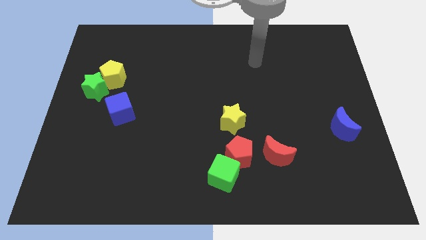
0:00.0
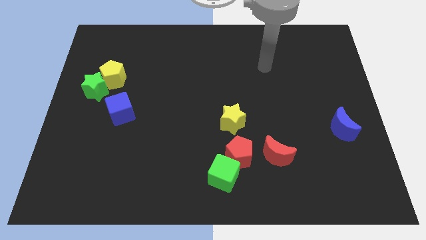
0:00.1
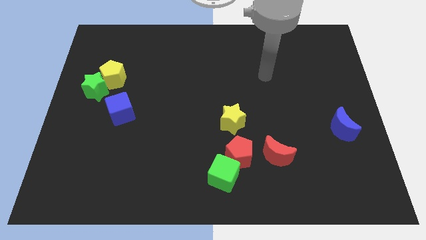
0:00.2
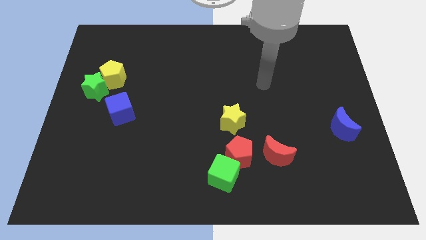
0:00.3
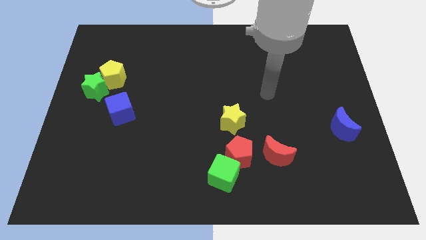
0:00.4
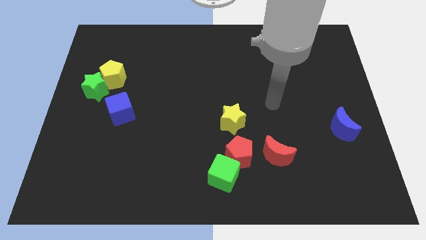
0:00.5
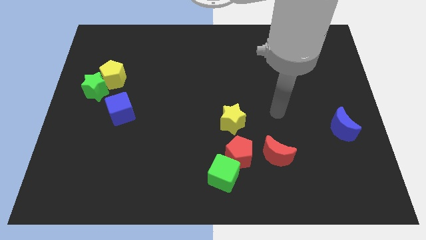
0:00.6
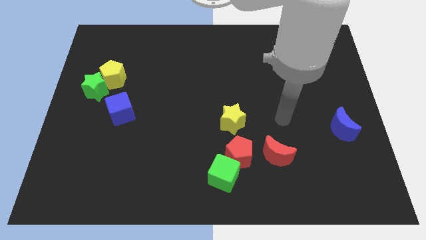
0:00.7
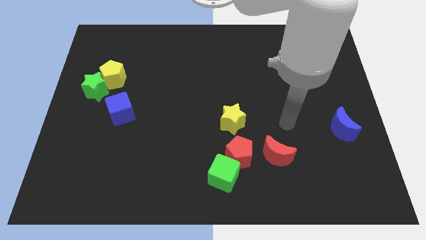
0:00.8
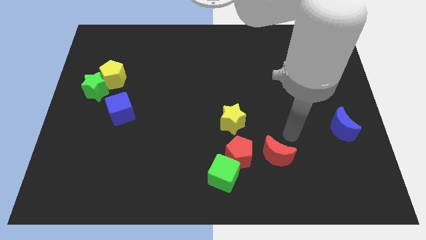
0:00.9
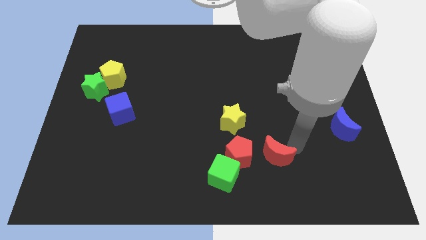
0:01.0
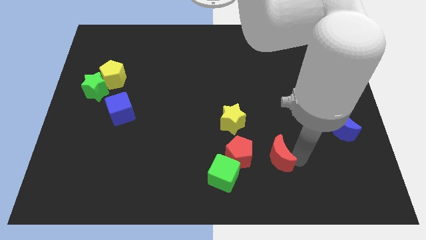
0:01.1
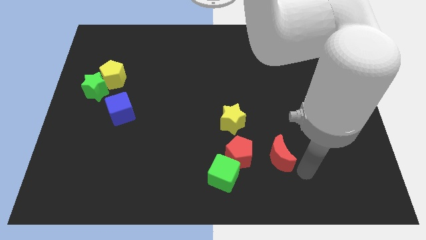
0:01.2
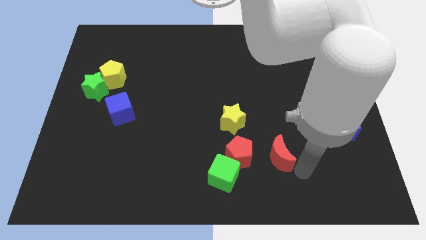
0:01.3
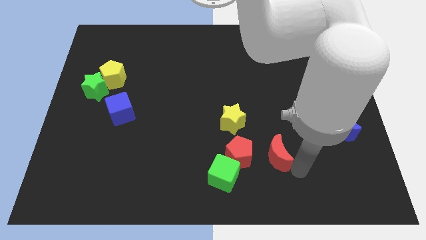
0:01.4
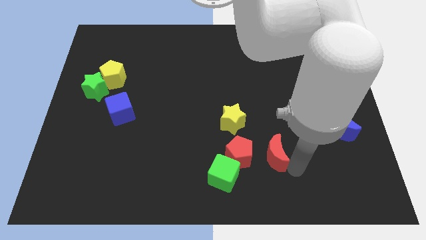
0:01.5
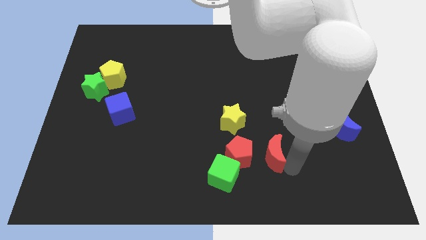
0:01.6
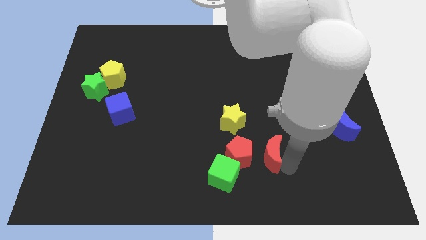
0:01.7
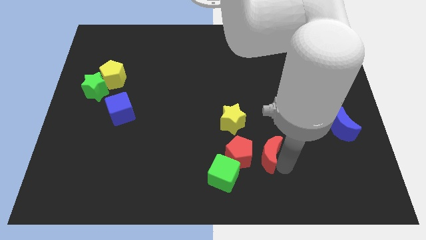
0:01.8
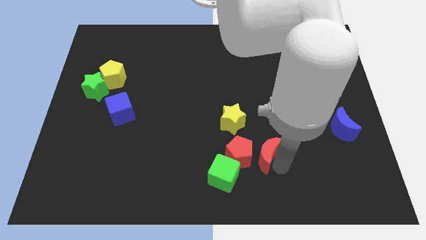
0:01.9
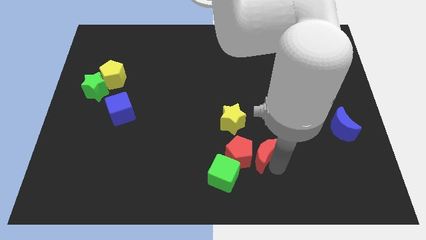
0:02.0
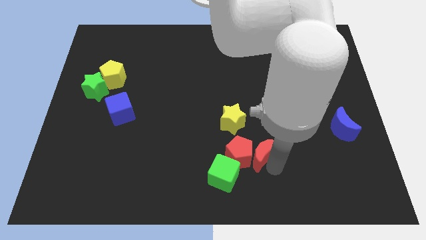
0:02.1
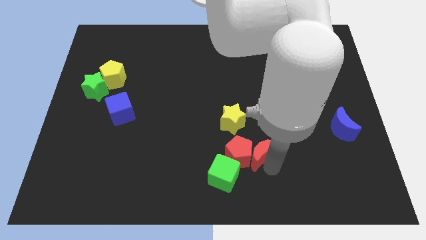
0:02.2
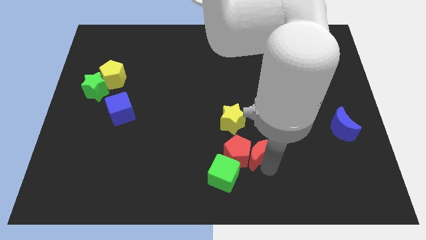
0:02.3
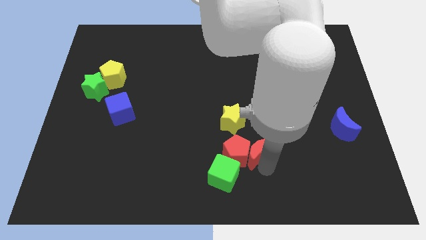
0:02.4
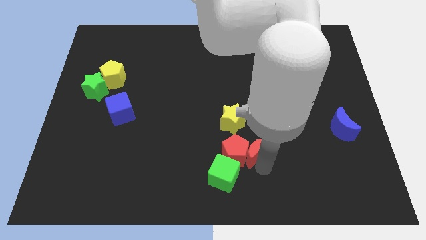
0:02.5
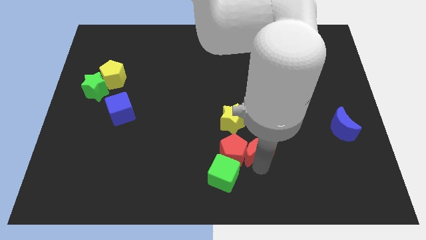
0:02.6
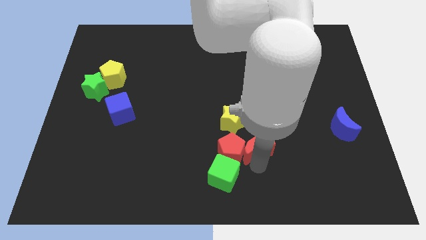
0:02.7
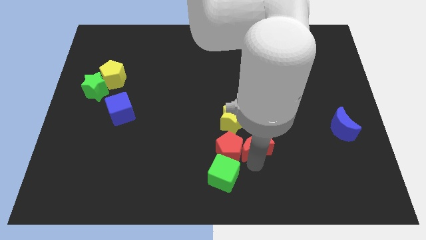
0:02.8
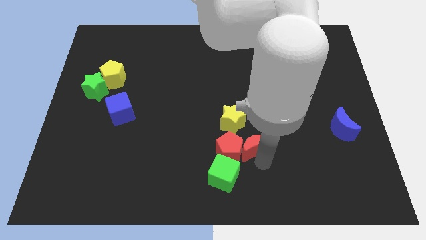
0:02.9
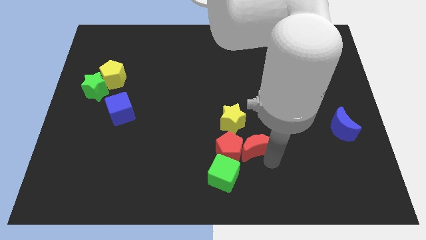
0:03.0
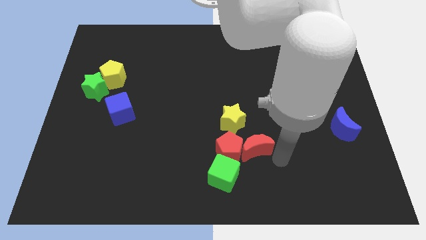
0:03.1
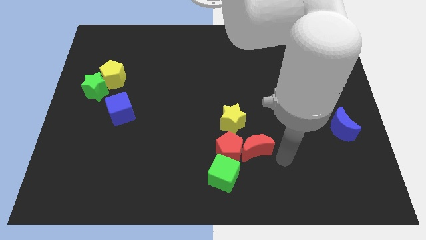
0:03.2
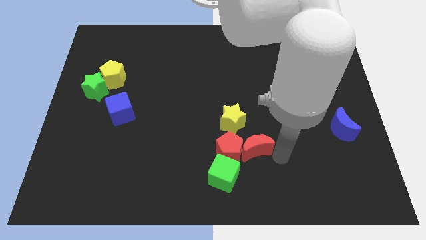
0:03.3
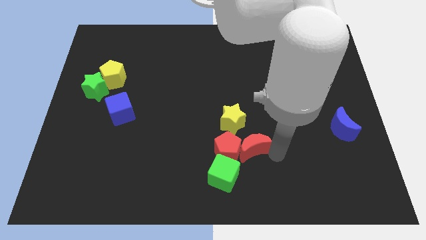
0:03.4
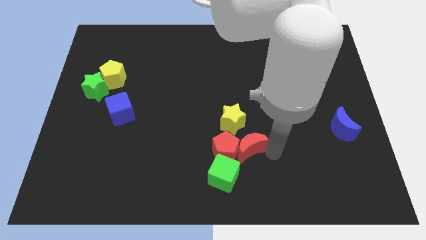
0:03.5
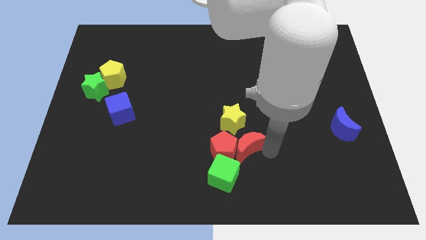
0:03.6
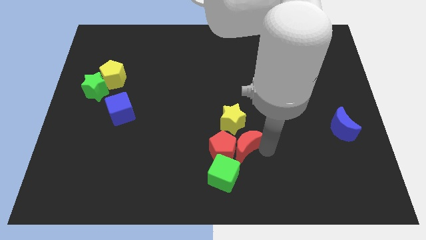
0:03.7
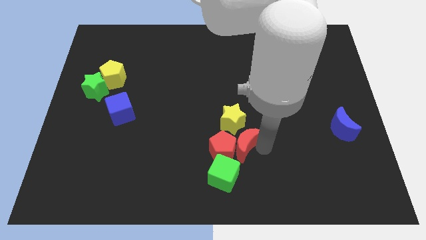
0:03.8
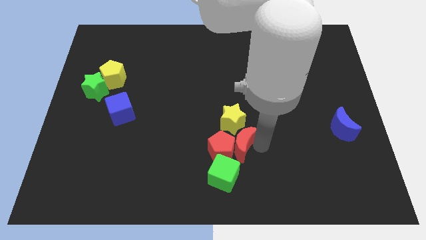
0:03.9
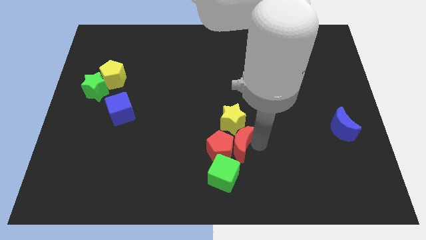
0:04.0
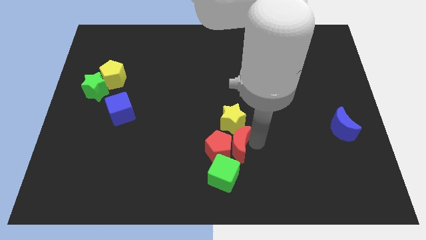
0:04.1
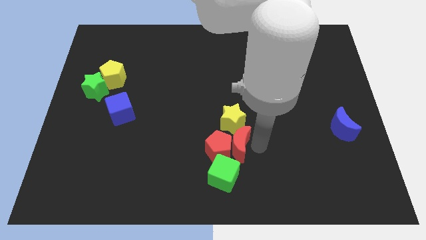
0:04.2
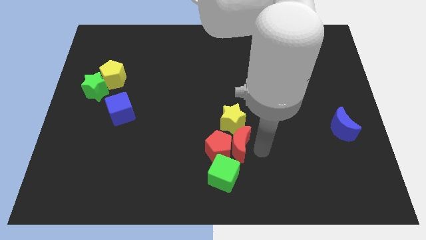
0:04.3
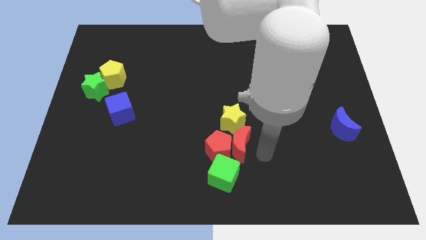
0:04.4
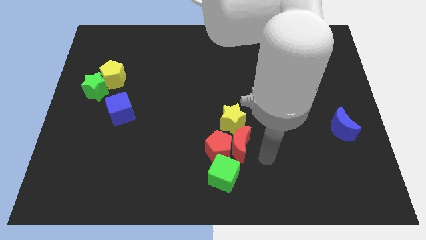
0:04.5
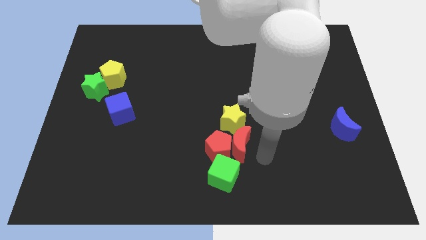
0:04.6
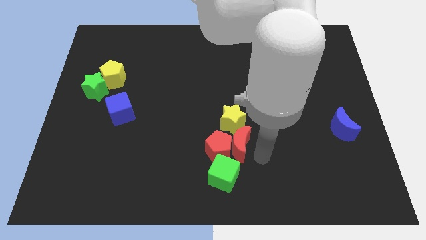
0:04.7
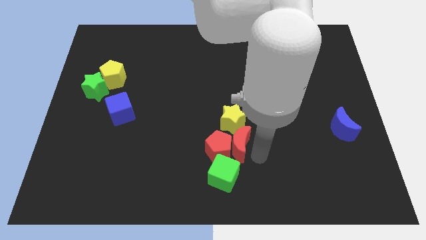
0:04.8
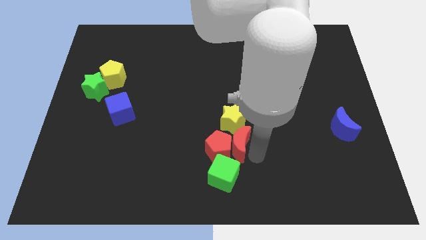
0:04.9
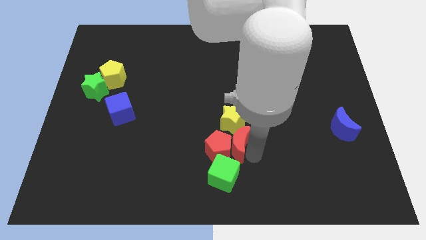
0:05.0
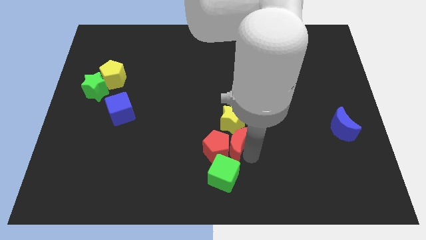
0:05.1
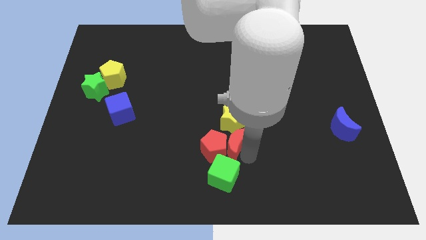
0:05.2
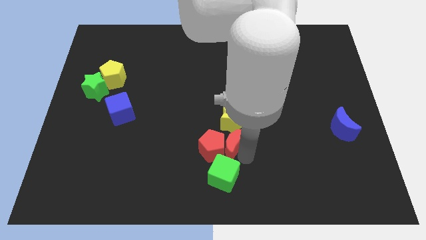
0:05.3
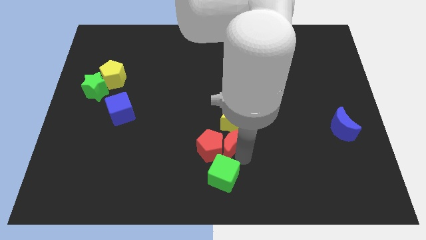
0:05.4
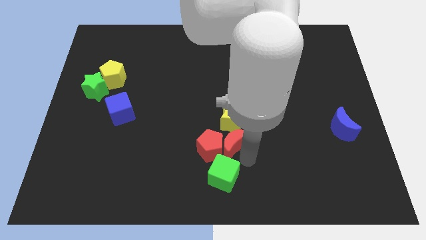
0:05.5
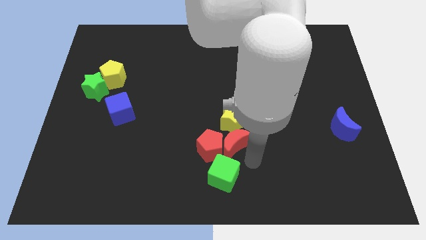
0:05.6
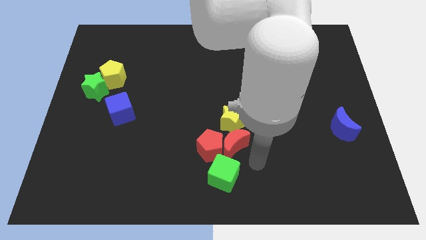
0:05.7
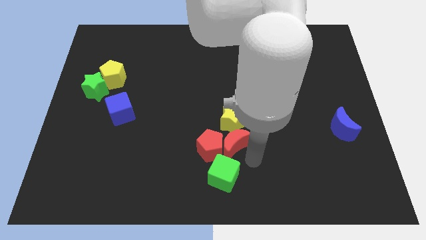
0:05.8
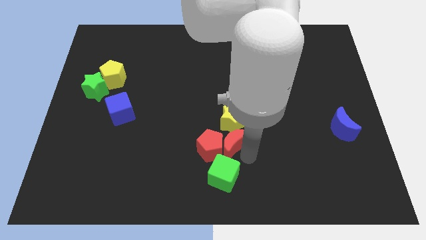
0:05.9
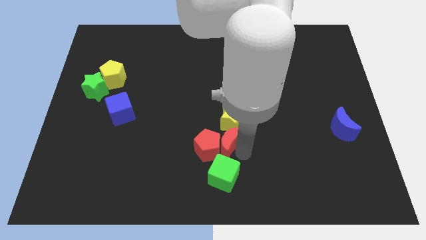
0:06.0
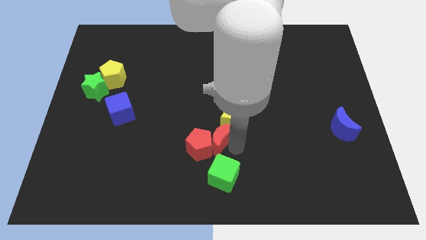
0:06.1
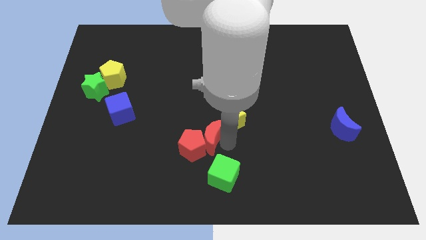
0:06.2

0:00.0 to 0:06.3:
push the red moon left of the yellow star

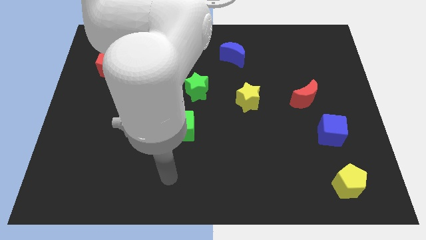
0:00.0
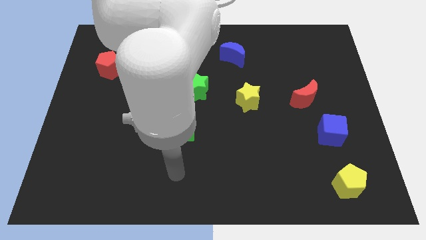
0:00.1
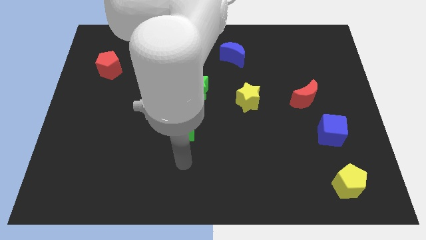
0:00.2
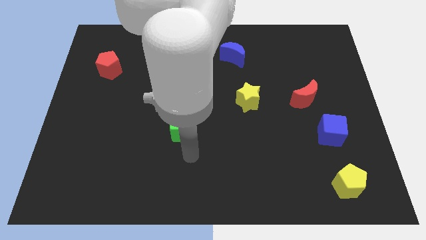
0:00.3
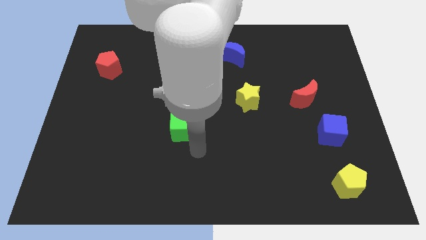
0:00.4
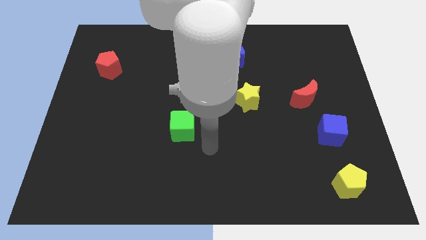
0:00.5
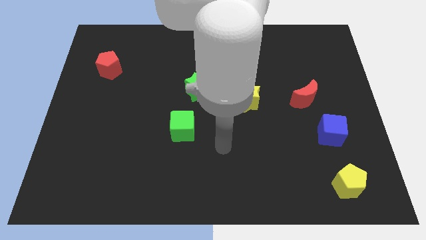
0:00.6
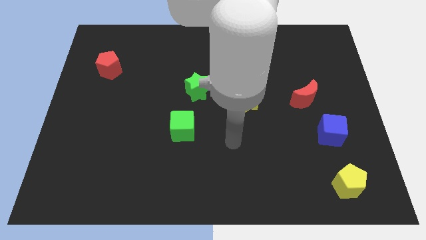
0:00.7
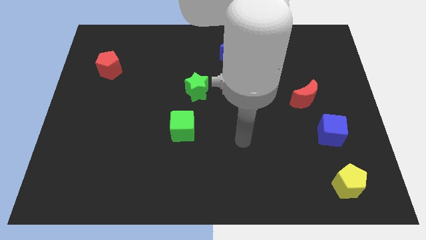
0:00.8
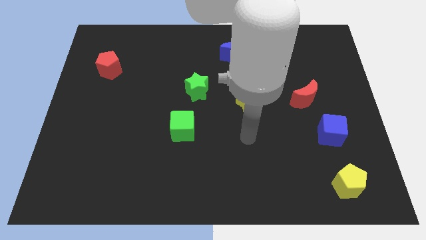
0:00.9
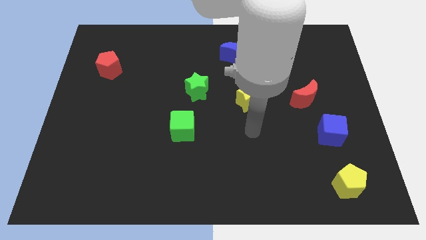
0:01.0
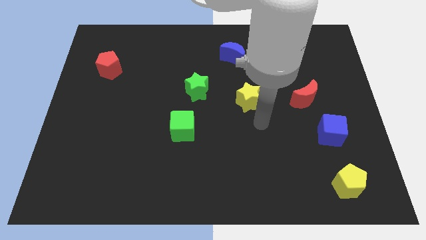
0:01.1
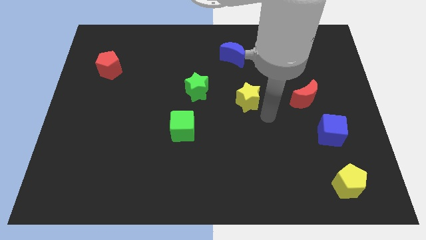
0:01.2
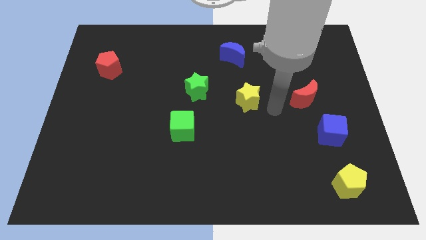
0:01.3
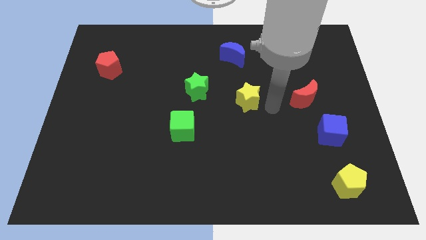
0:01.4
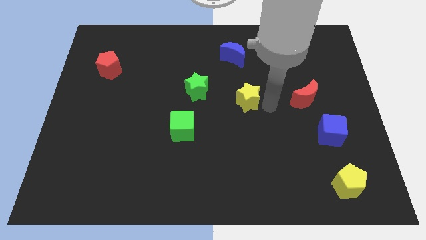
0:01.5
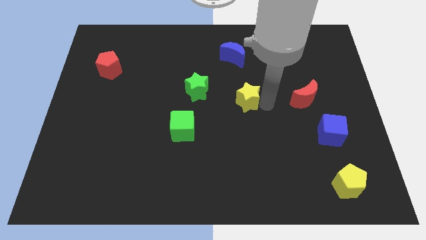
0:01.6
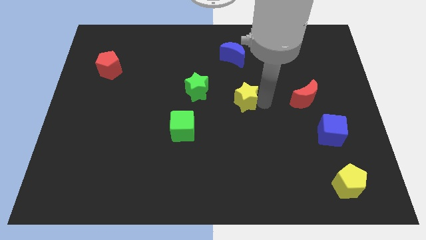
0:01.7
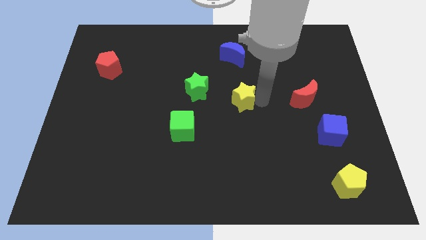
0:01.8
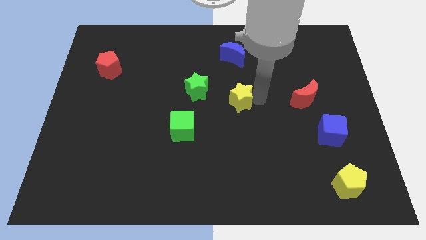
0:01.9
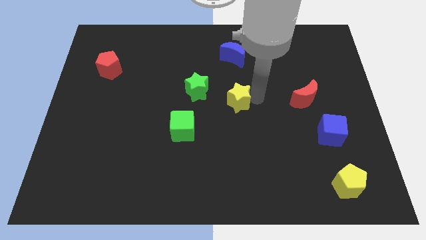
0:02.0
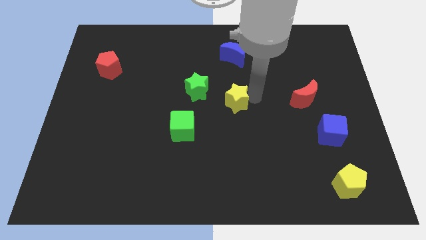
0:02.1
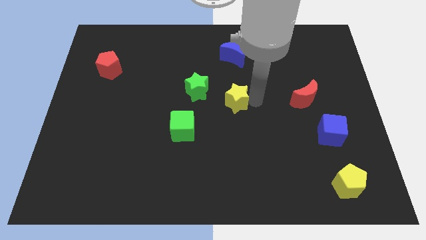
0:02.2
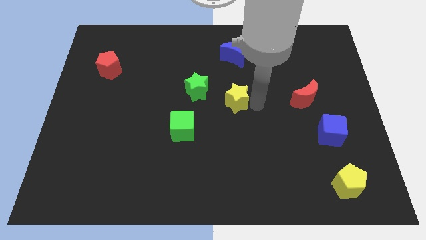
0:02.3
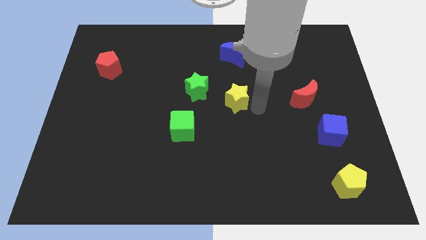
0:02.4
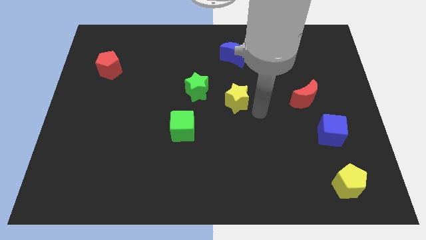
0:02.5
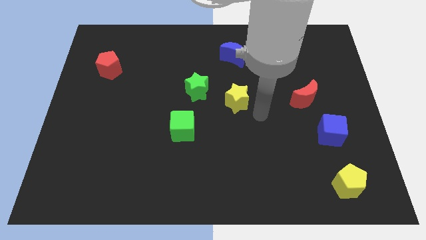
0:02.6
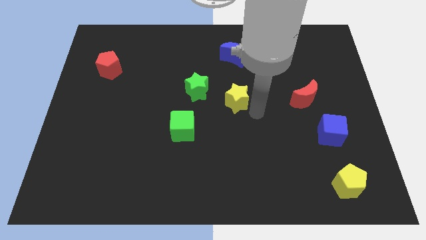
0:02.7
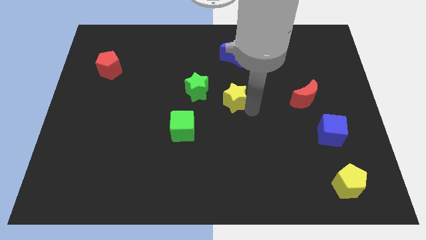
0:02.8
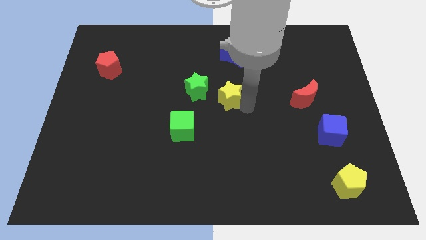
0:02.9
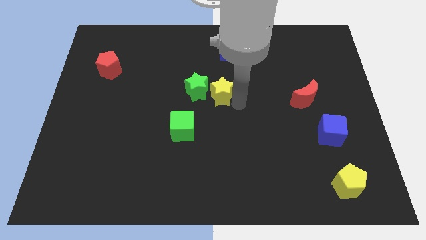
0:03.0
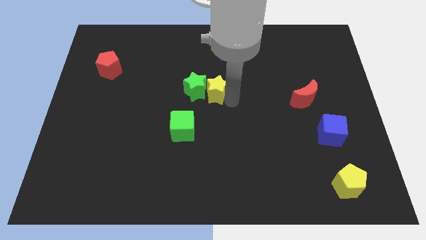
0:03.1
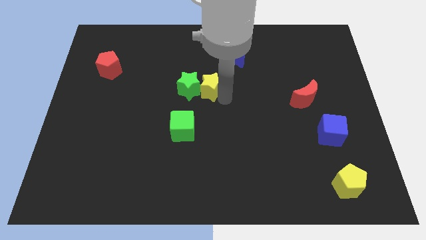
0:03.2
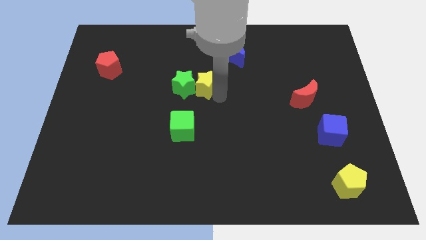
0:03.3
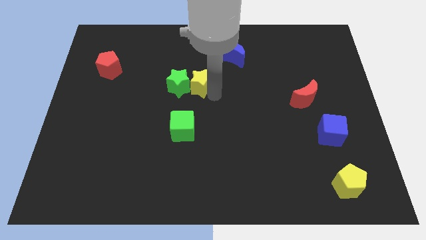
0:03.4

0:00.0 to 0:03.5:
put the yellow star to the top of the green cube
